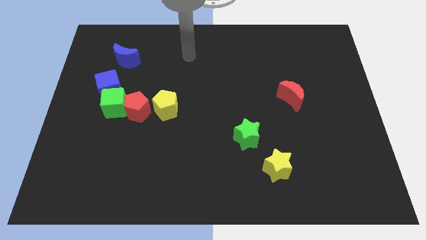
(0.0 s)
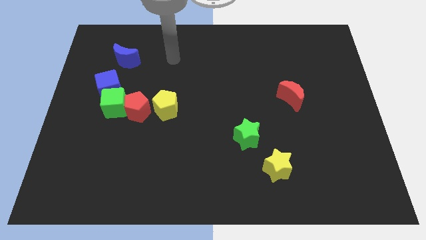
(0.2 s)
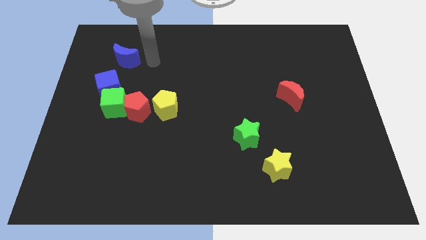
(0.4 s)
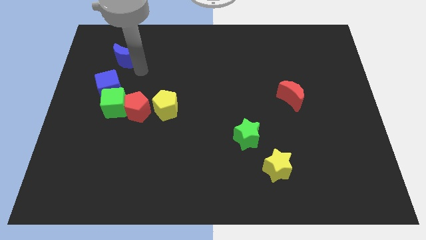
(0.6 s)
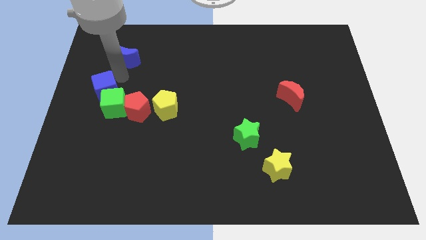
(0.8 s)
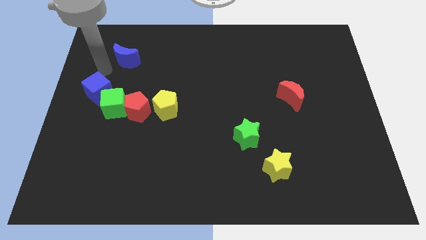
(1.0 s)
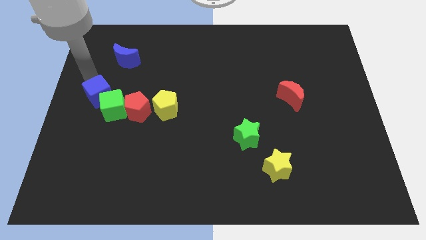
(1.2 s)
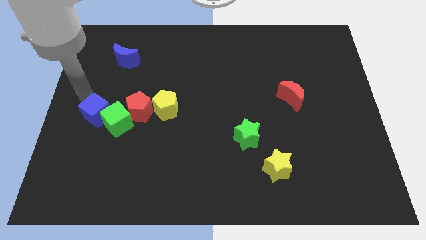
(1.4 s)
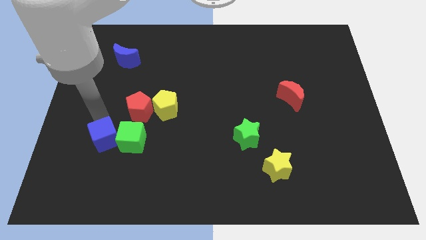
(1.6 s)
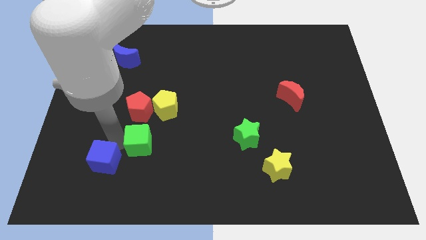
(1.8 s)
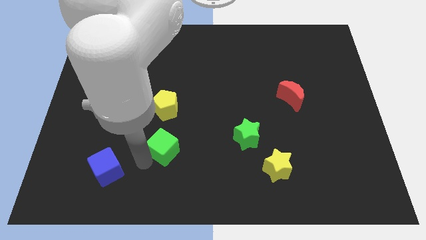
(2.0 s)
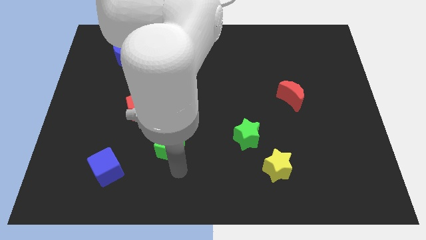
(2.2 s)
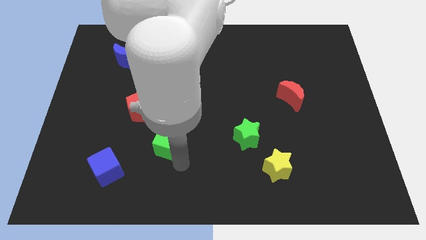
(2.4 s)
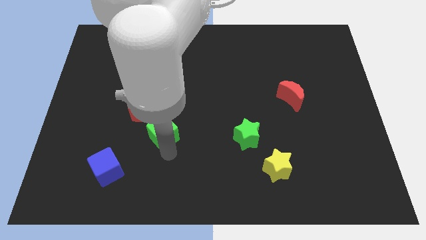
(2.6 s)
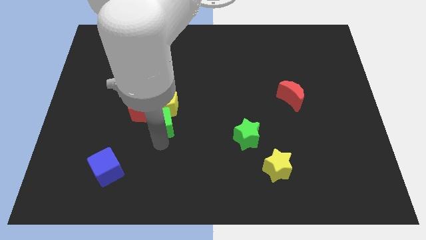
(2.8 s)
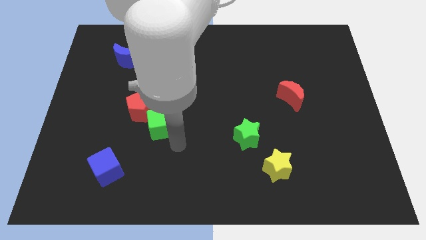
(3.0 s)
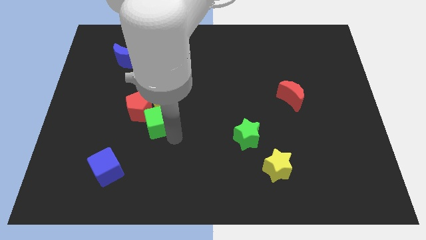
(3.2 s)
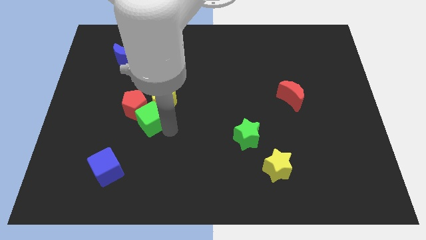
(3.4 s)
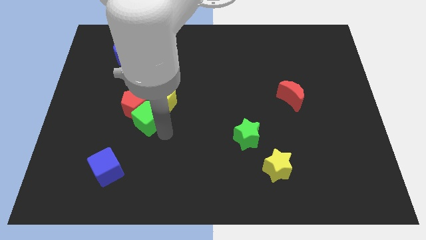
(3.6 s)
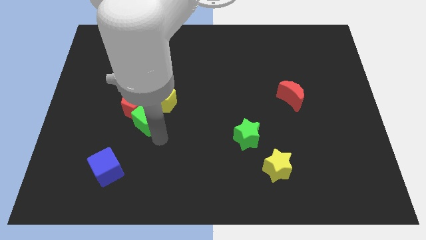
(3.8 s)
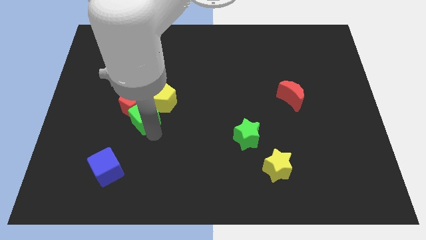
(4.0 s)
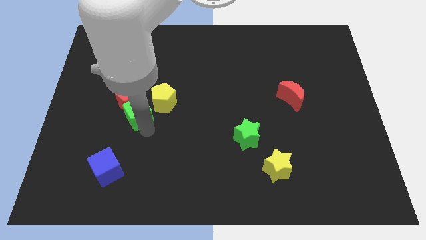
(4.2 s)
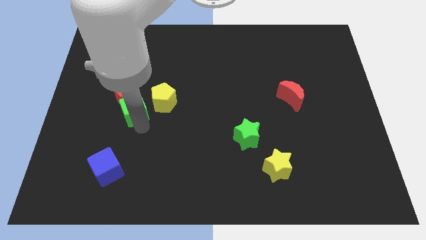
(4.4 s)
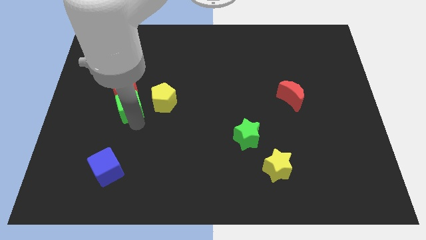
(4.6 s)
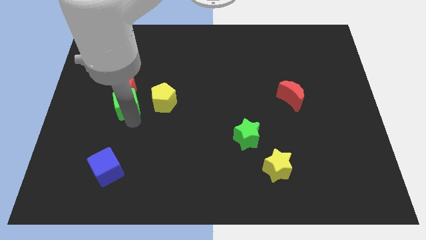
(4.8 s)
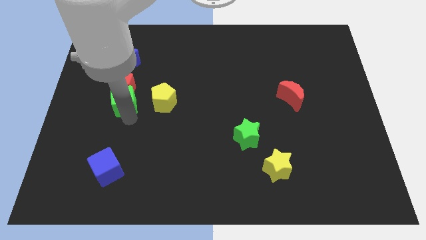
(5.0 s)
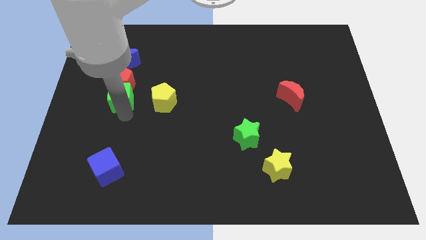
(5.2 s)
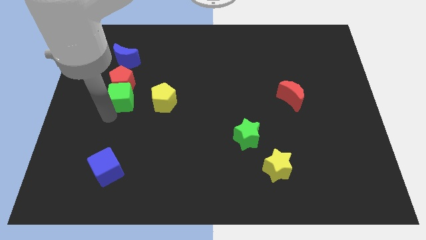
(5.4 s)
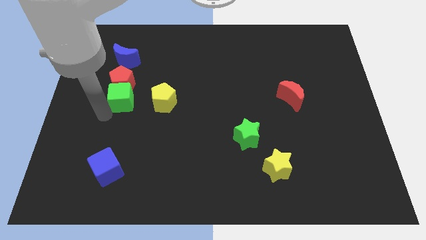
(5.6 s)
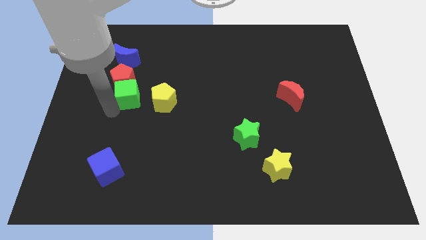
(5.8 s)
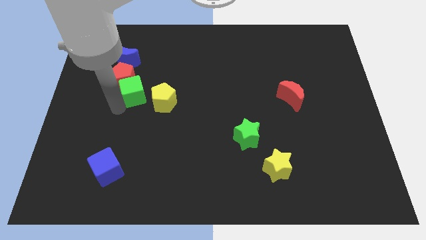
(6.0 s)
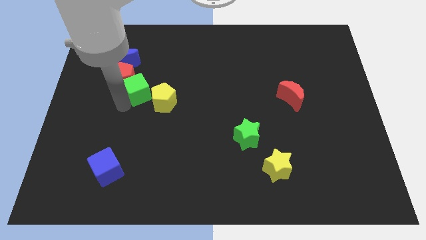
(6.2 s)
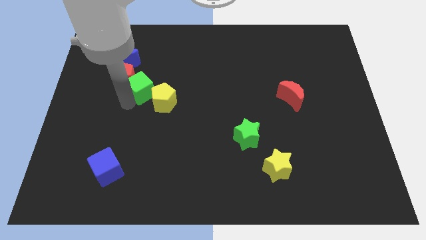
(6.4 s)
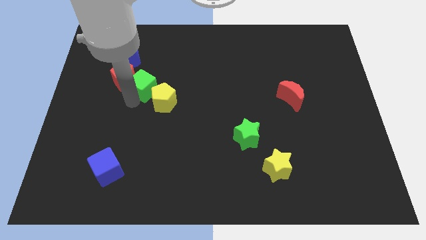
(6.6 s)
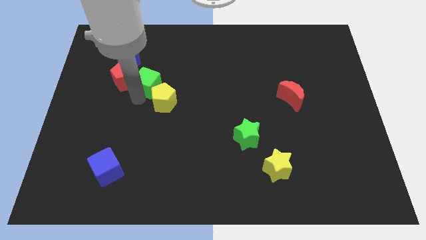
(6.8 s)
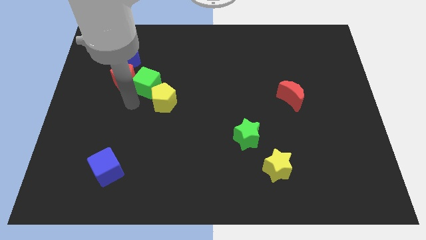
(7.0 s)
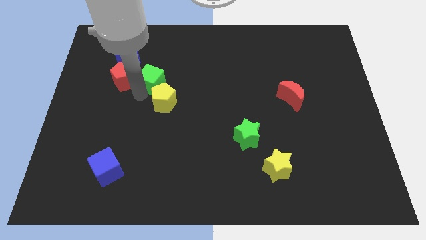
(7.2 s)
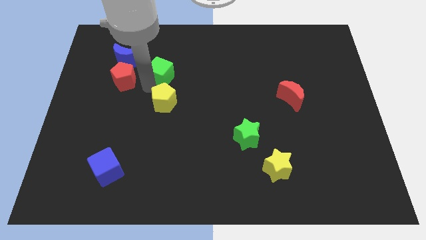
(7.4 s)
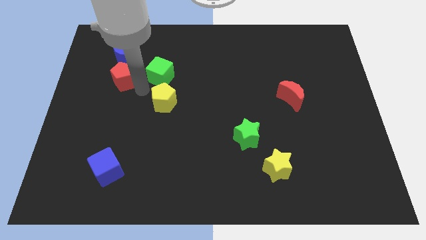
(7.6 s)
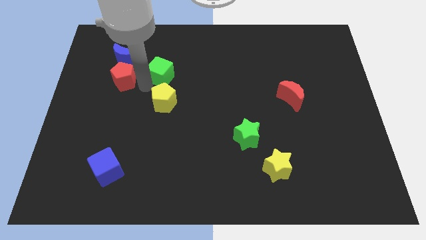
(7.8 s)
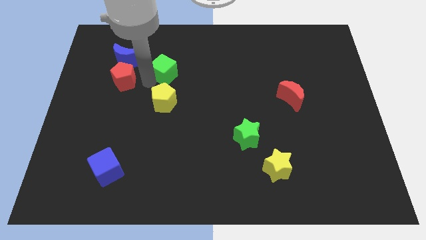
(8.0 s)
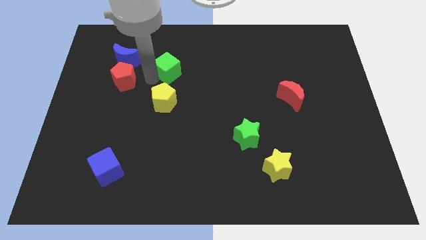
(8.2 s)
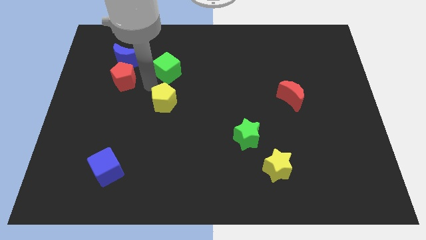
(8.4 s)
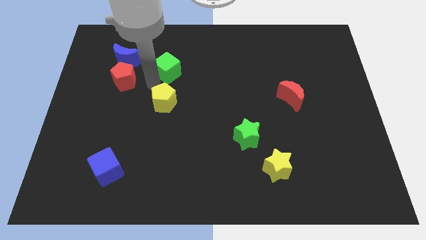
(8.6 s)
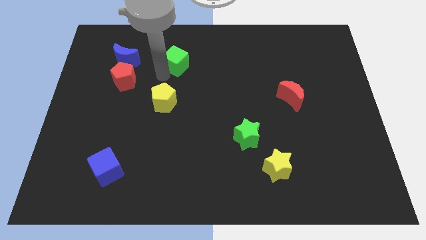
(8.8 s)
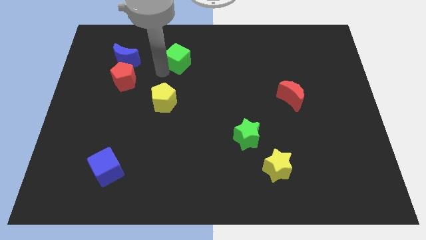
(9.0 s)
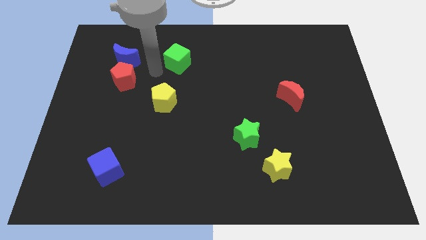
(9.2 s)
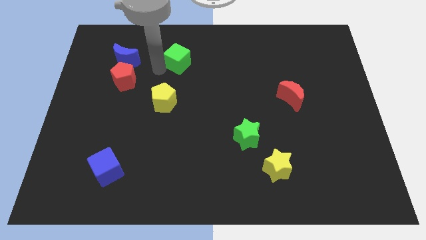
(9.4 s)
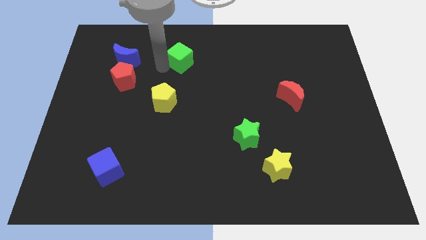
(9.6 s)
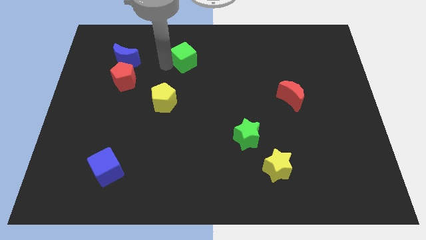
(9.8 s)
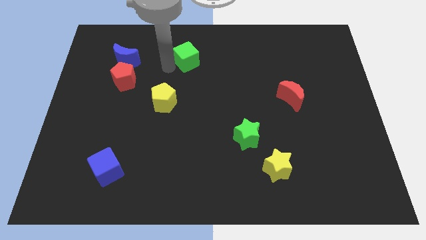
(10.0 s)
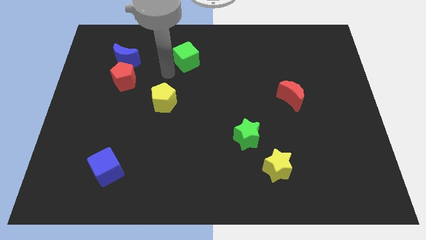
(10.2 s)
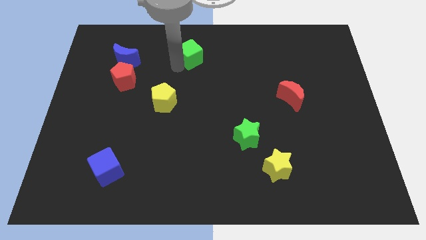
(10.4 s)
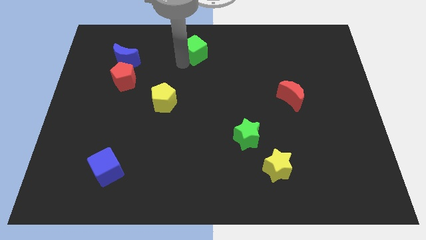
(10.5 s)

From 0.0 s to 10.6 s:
slide the green cube to the top side

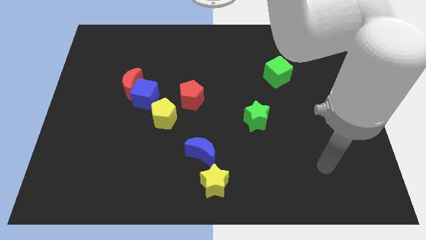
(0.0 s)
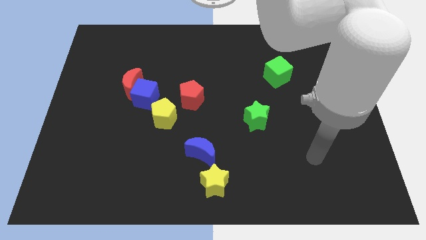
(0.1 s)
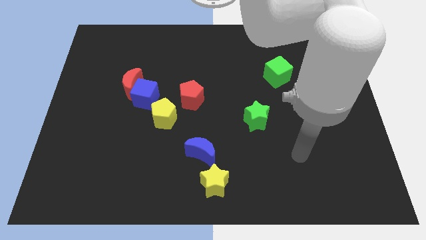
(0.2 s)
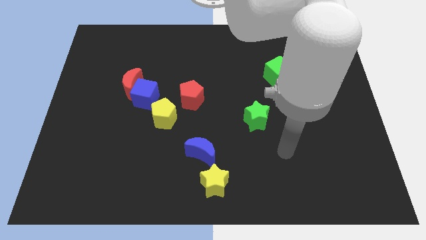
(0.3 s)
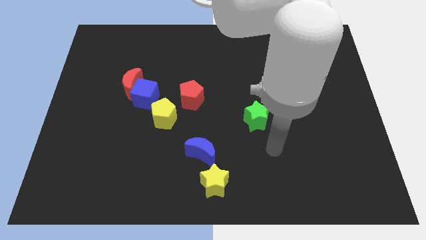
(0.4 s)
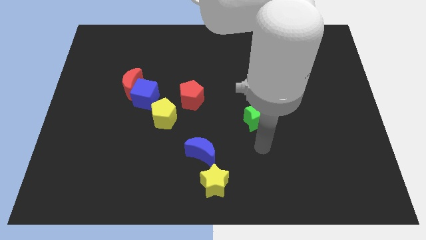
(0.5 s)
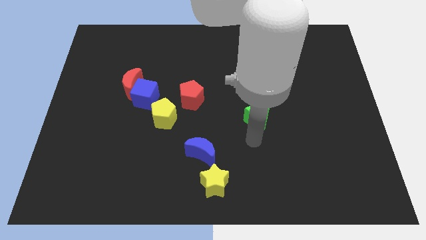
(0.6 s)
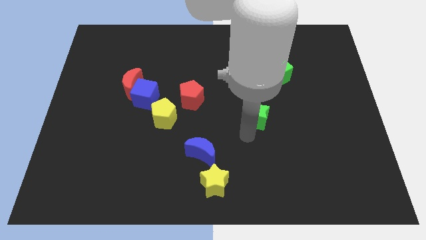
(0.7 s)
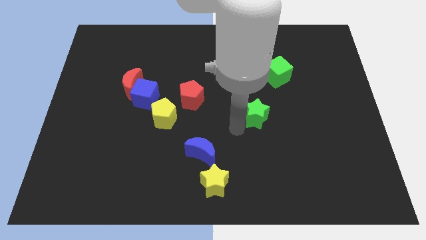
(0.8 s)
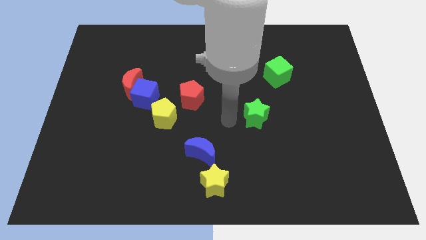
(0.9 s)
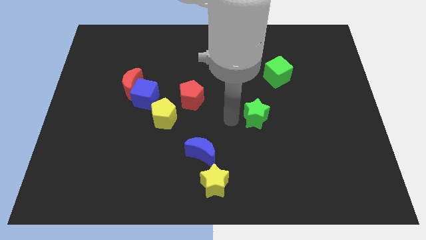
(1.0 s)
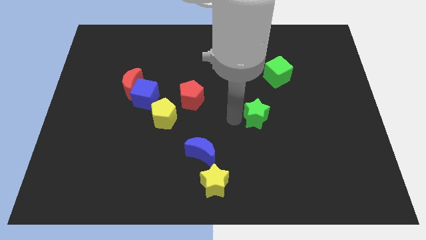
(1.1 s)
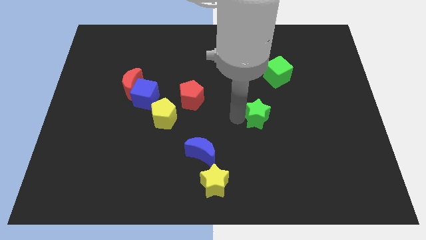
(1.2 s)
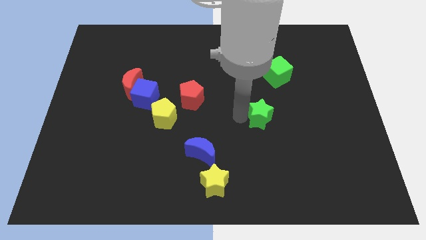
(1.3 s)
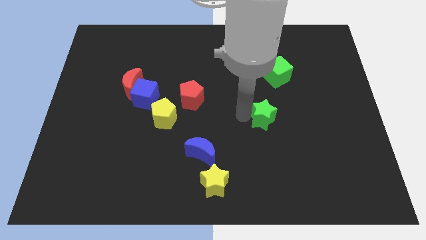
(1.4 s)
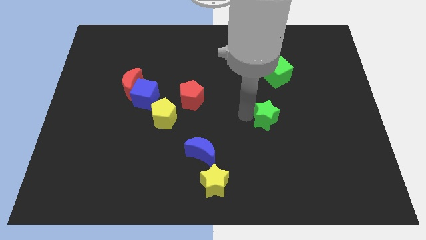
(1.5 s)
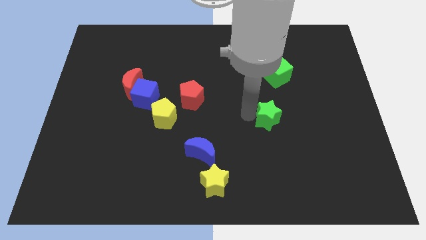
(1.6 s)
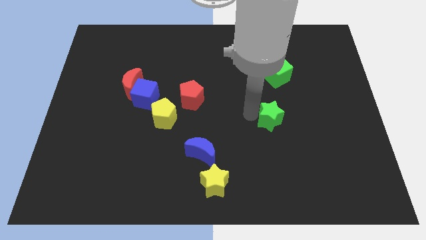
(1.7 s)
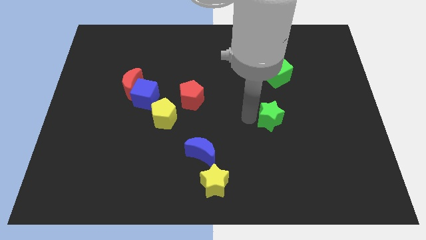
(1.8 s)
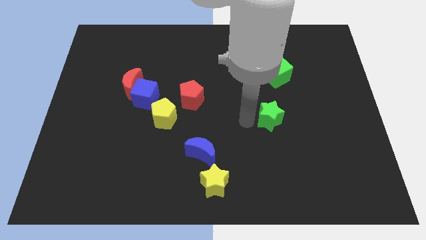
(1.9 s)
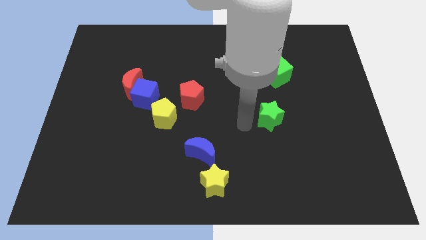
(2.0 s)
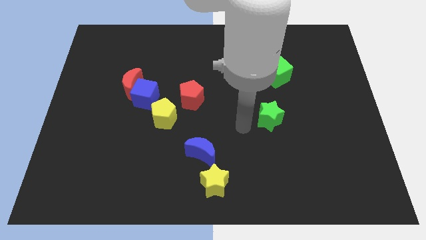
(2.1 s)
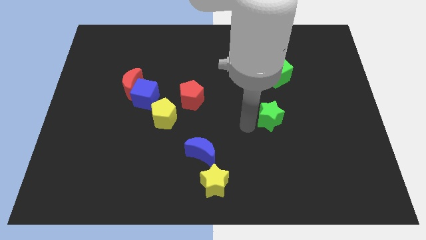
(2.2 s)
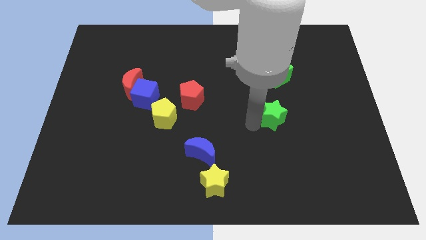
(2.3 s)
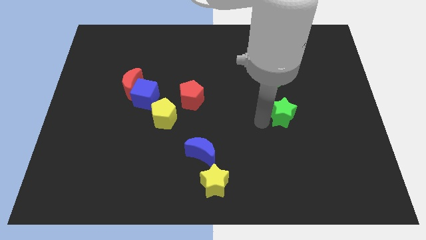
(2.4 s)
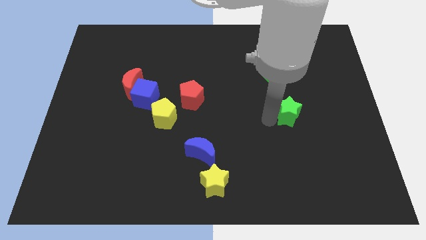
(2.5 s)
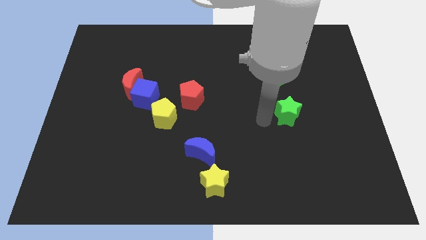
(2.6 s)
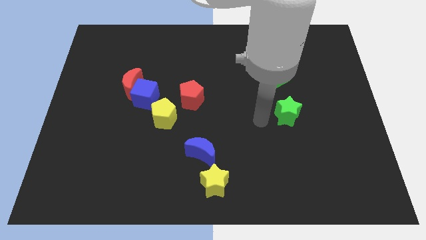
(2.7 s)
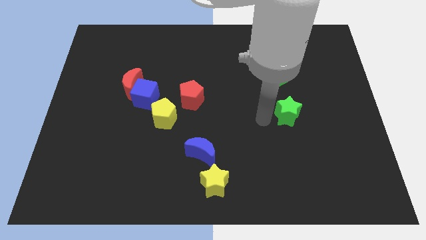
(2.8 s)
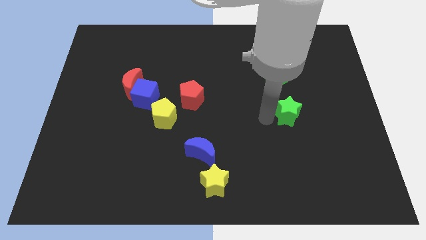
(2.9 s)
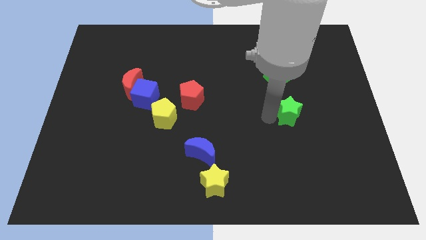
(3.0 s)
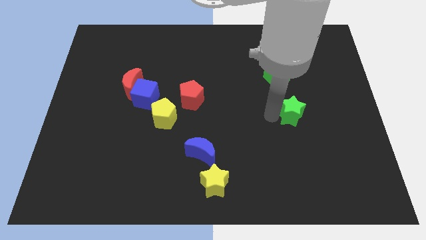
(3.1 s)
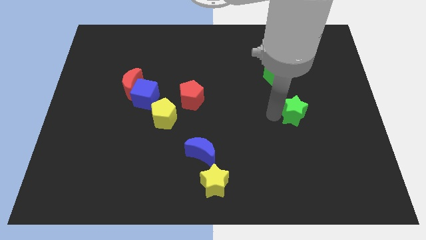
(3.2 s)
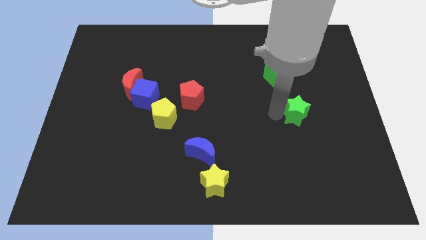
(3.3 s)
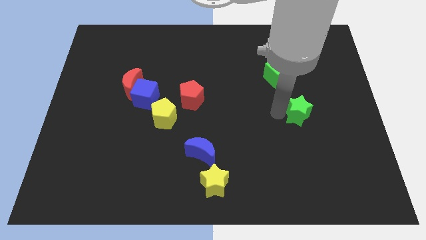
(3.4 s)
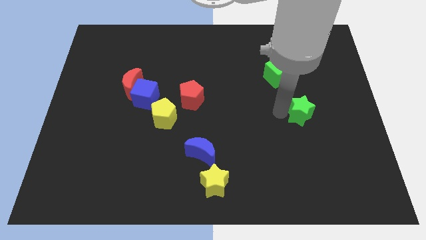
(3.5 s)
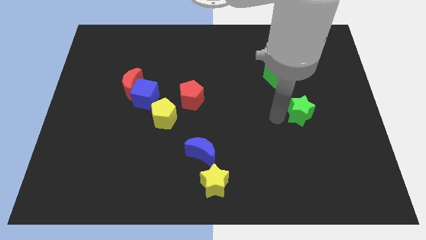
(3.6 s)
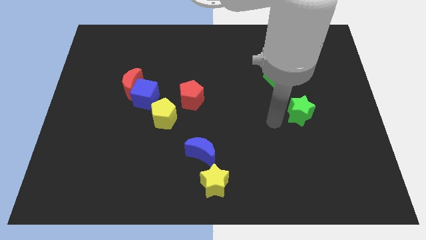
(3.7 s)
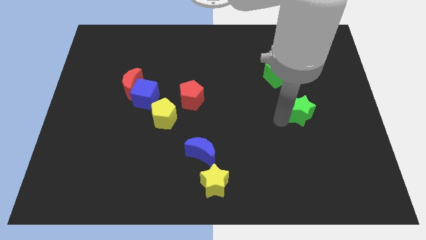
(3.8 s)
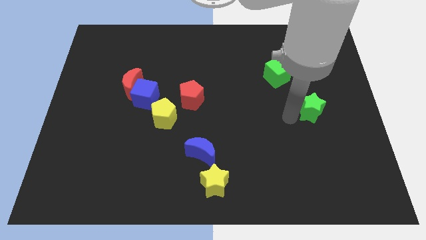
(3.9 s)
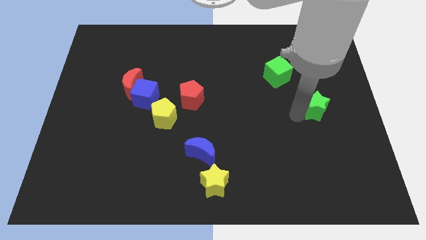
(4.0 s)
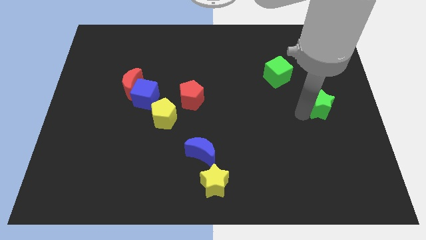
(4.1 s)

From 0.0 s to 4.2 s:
put the green star to the right side of the board
